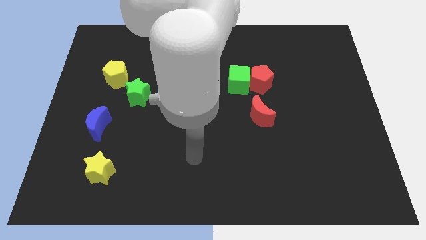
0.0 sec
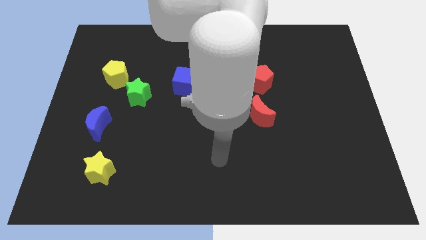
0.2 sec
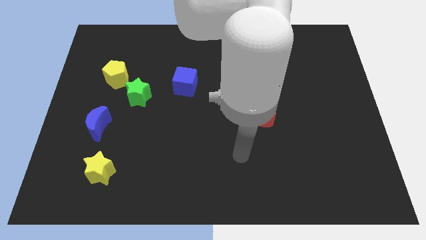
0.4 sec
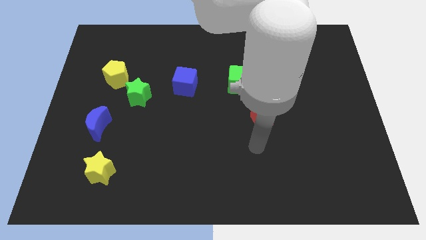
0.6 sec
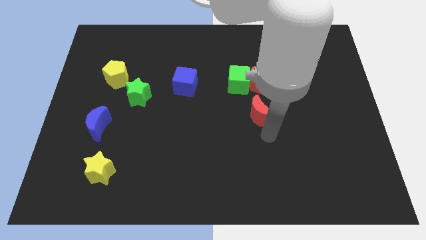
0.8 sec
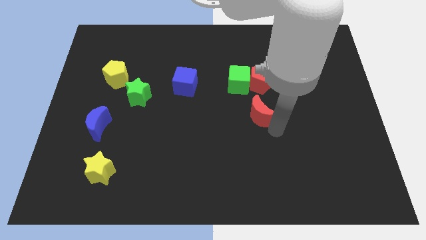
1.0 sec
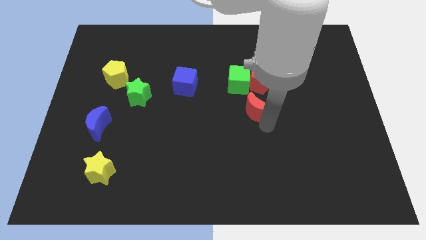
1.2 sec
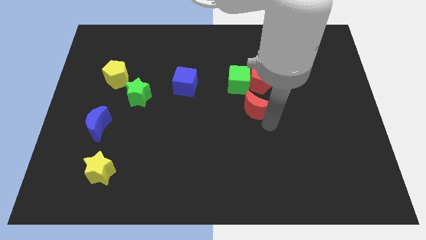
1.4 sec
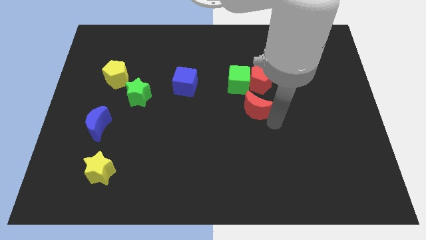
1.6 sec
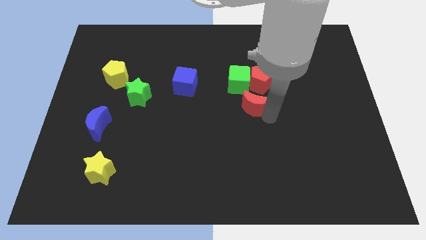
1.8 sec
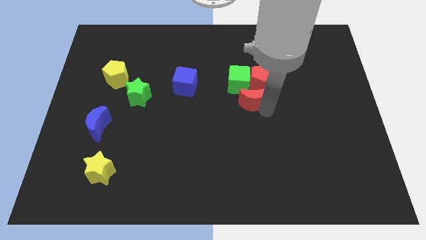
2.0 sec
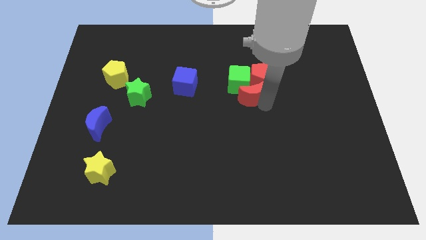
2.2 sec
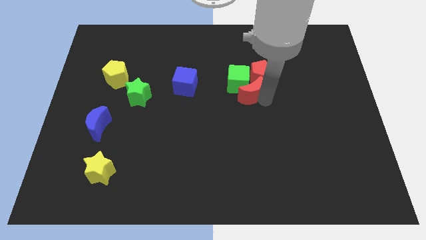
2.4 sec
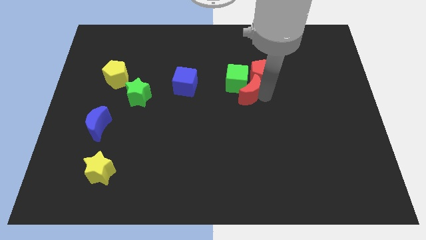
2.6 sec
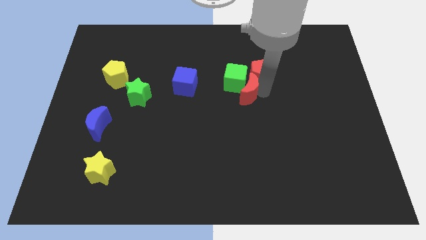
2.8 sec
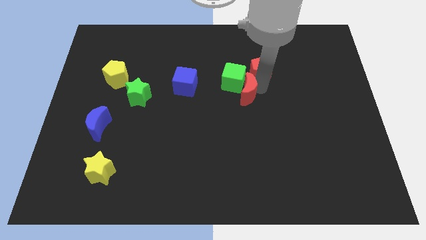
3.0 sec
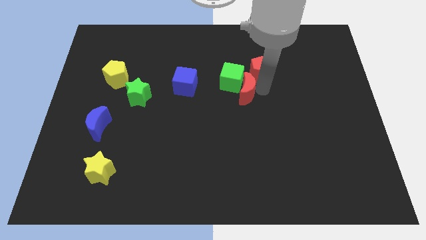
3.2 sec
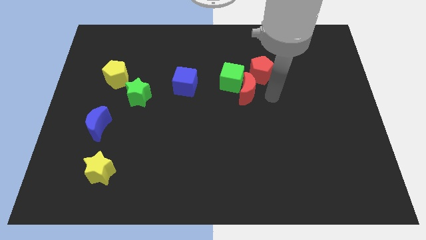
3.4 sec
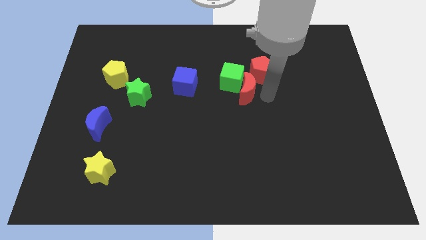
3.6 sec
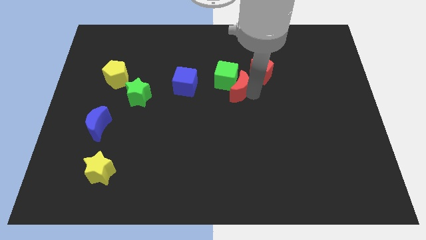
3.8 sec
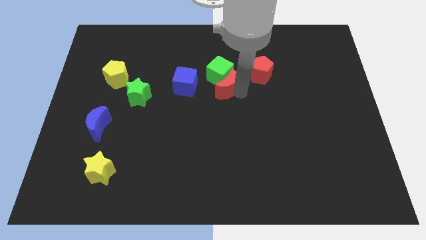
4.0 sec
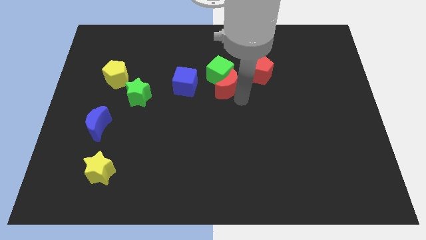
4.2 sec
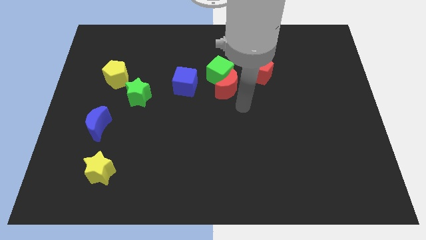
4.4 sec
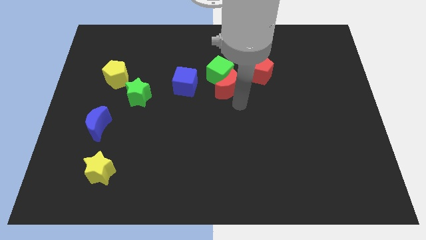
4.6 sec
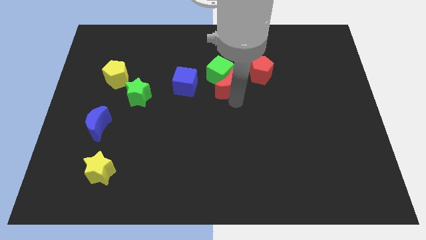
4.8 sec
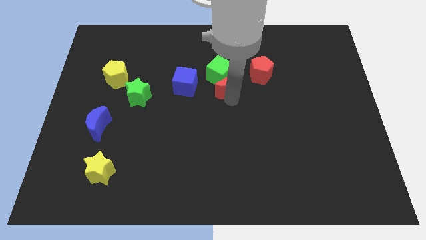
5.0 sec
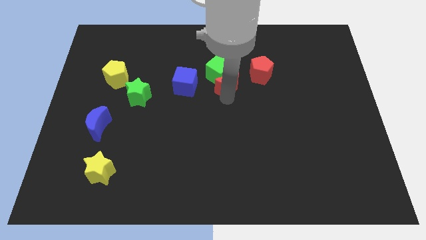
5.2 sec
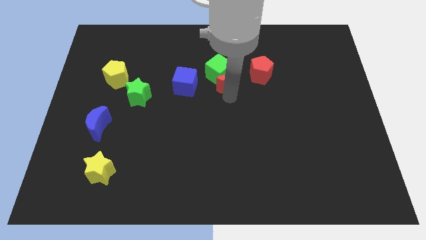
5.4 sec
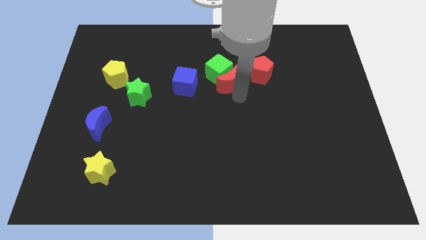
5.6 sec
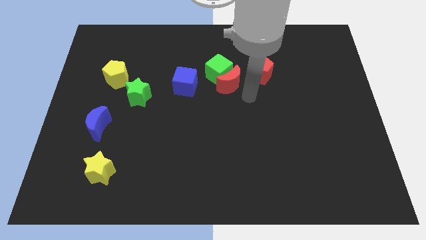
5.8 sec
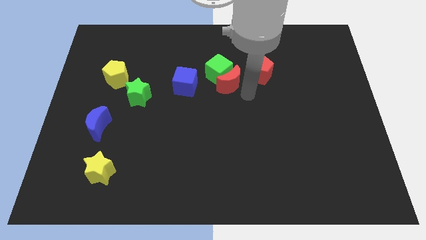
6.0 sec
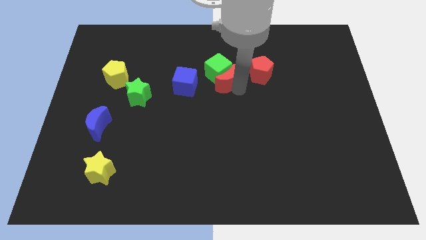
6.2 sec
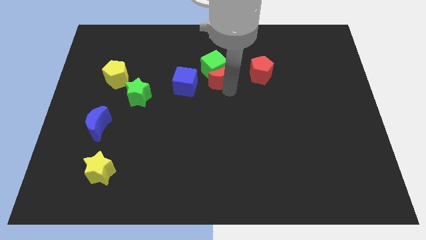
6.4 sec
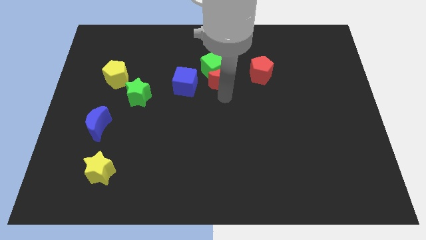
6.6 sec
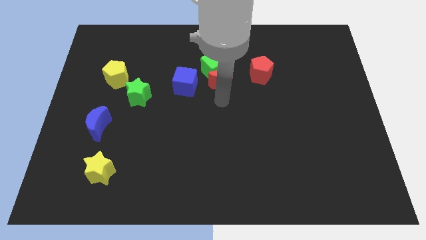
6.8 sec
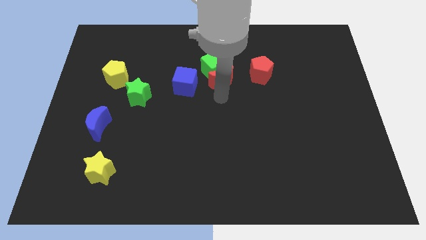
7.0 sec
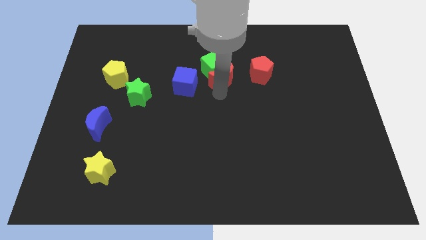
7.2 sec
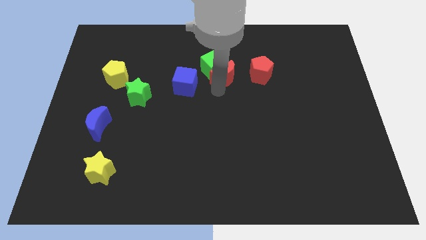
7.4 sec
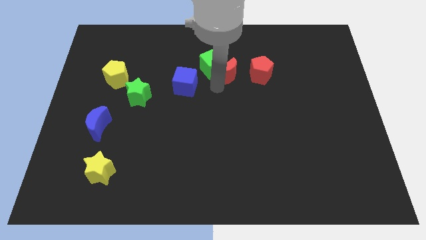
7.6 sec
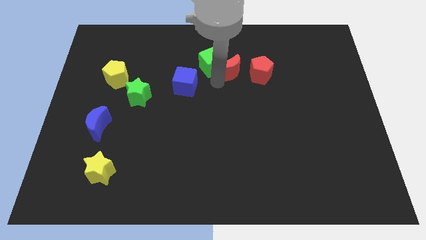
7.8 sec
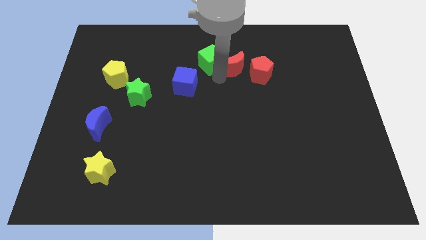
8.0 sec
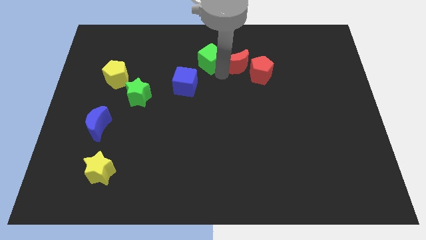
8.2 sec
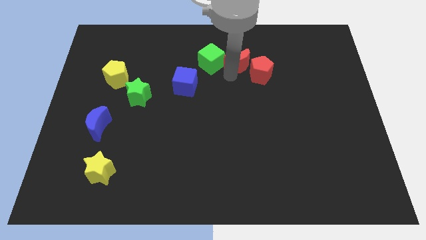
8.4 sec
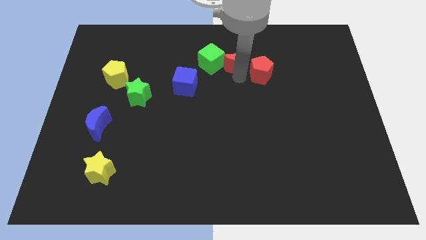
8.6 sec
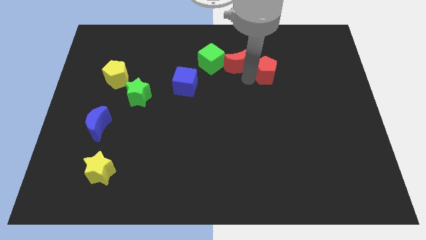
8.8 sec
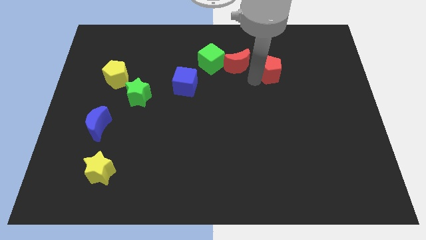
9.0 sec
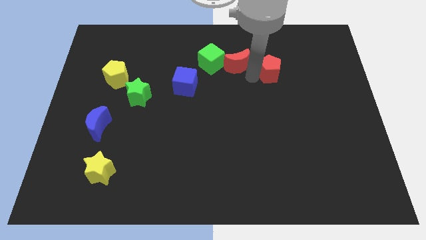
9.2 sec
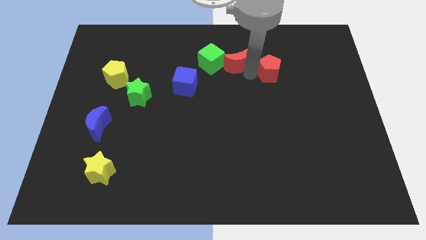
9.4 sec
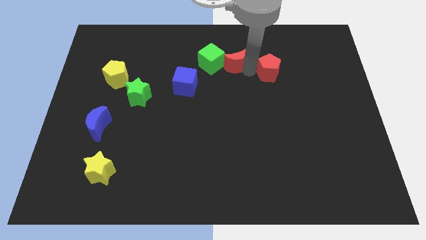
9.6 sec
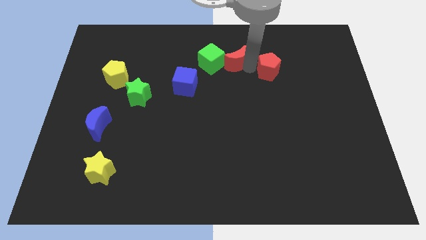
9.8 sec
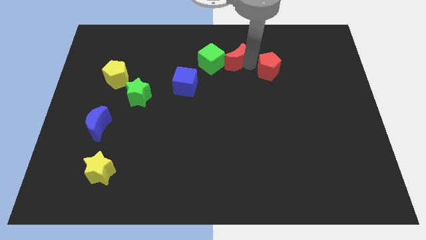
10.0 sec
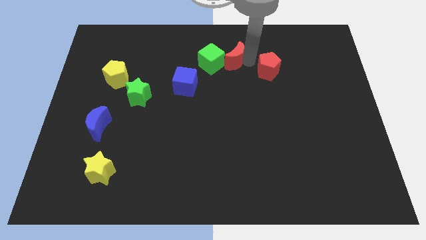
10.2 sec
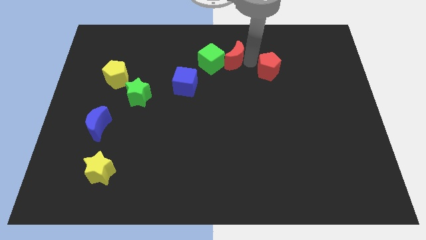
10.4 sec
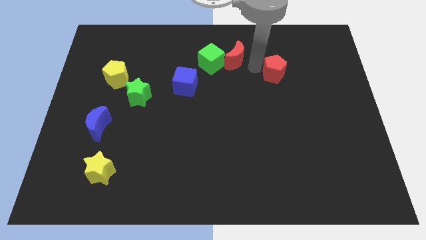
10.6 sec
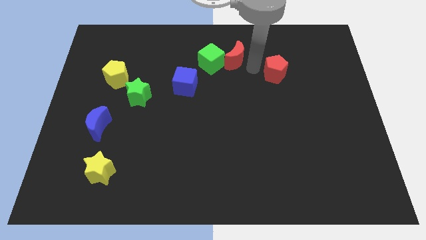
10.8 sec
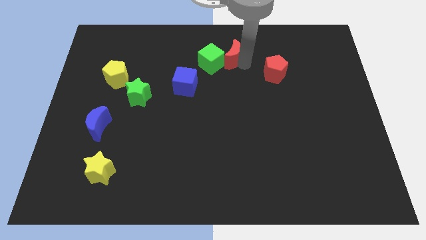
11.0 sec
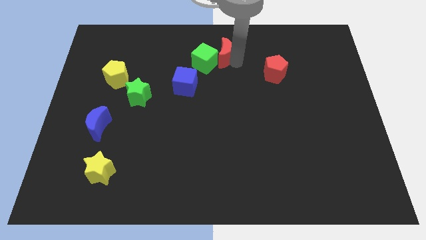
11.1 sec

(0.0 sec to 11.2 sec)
move the red moon to the top side

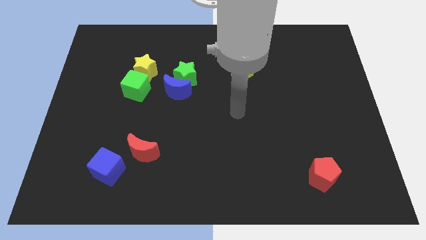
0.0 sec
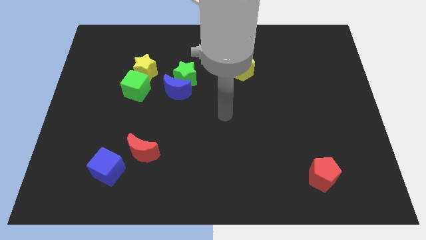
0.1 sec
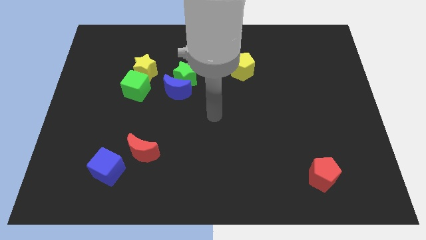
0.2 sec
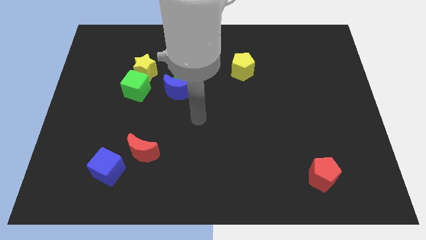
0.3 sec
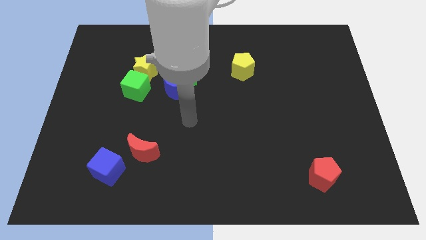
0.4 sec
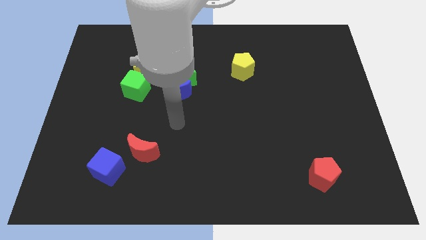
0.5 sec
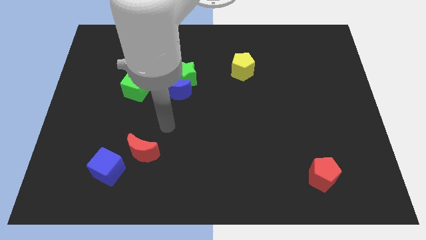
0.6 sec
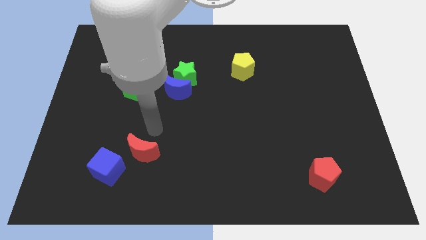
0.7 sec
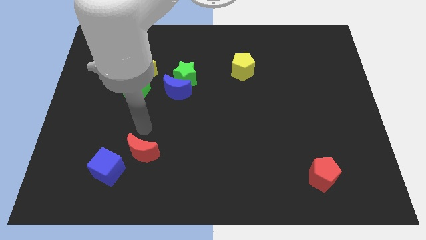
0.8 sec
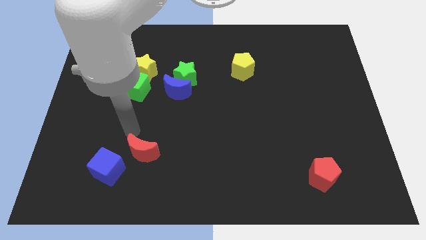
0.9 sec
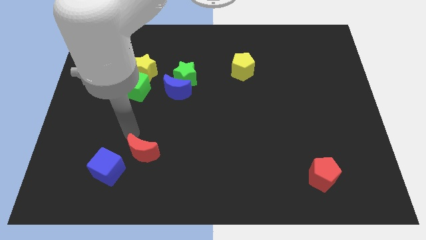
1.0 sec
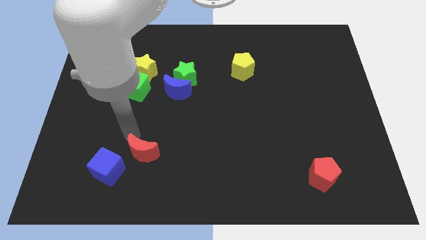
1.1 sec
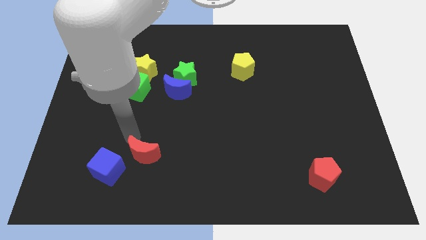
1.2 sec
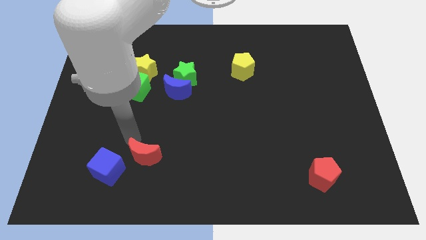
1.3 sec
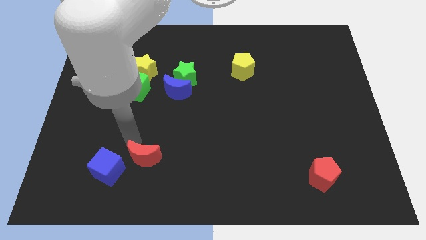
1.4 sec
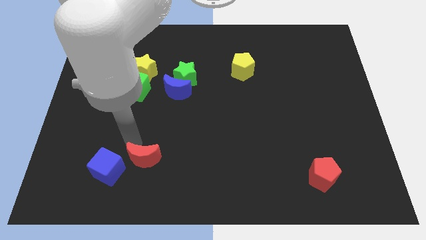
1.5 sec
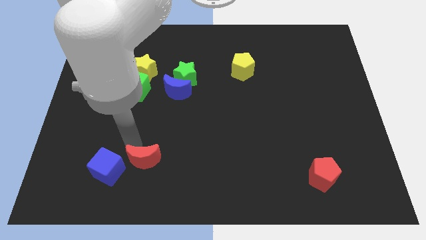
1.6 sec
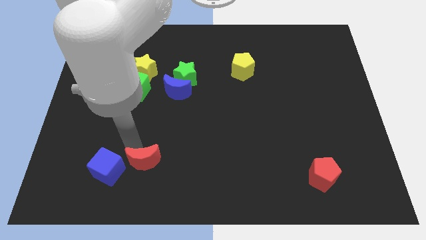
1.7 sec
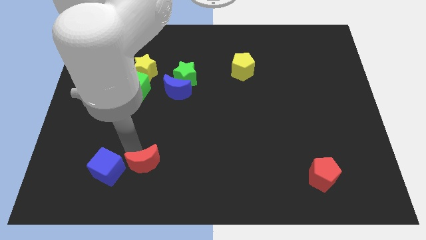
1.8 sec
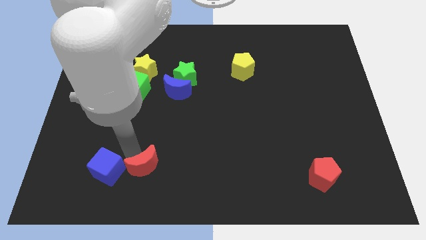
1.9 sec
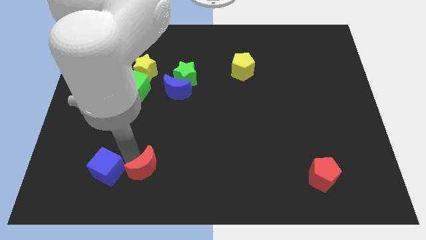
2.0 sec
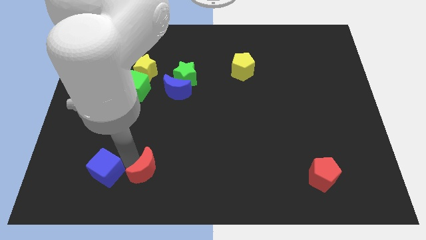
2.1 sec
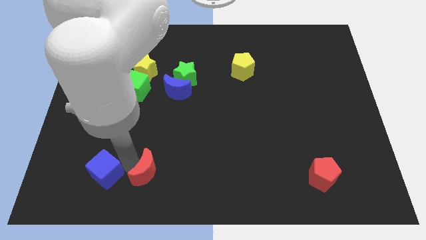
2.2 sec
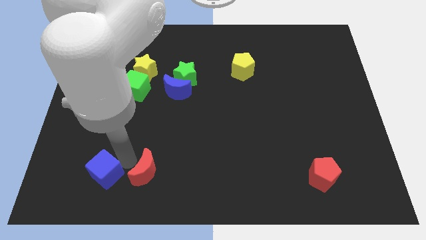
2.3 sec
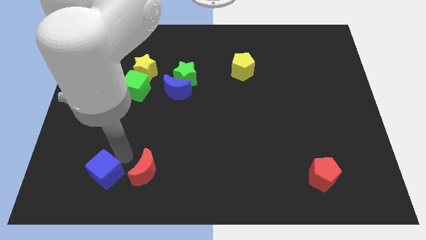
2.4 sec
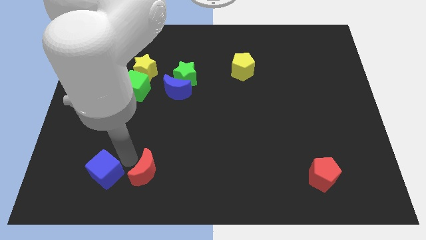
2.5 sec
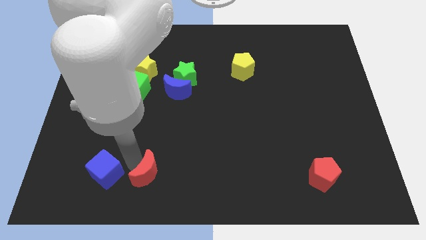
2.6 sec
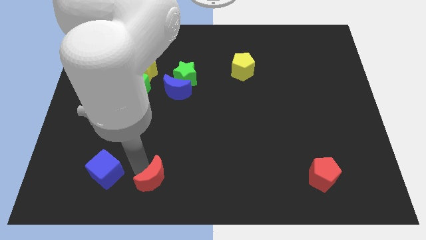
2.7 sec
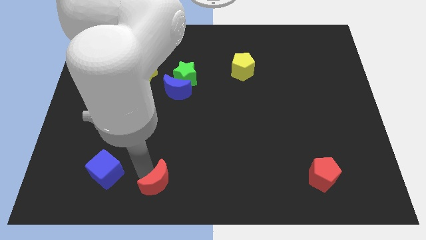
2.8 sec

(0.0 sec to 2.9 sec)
push the red moon to the bottom side
